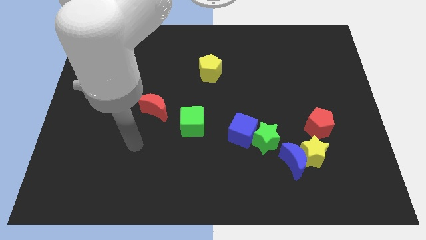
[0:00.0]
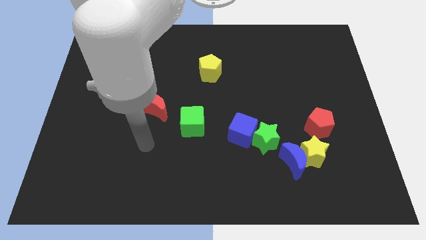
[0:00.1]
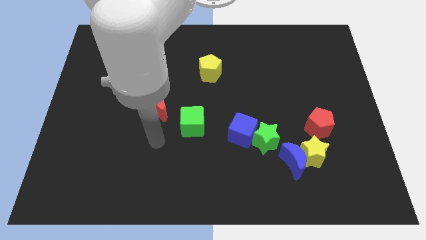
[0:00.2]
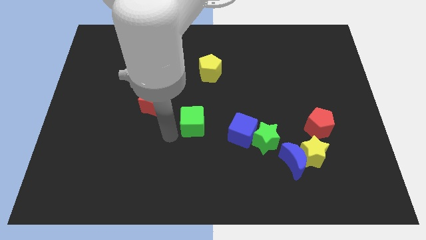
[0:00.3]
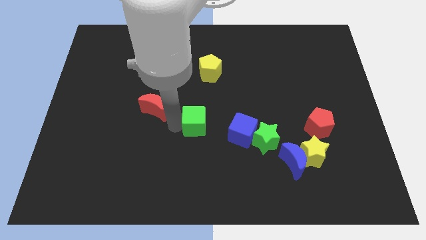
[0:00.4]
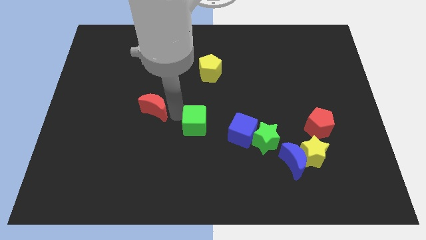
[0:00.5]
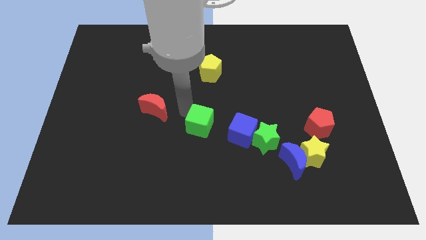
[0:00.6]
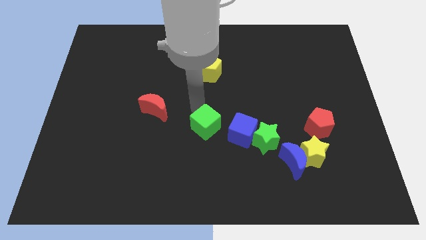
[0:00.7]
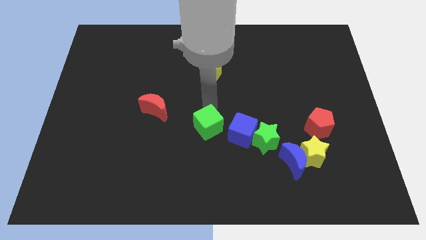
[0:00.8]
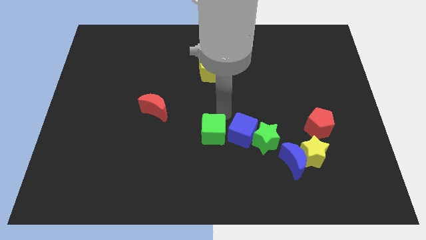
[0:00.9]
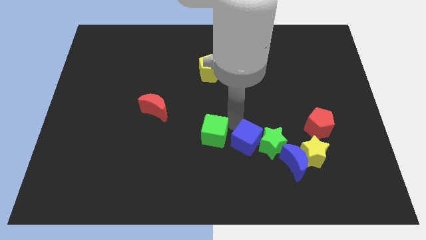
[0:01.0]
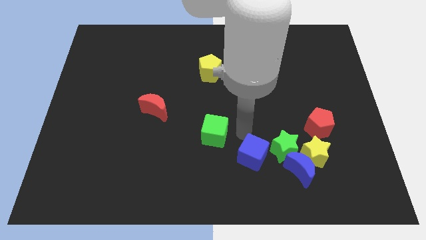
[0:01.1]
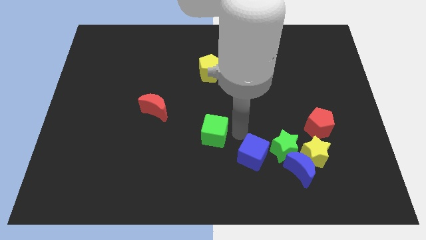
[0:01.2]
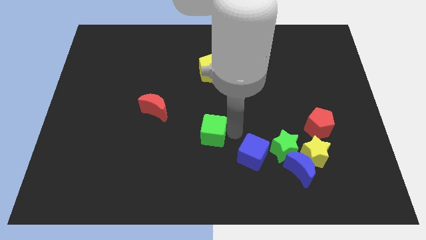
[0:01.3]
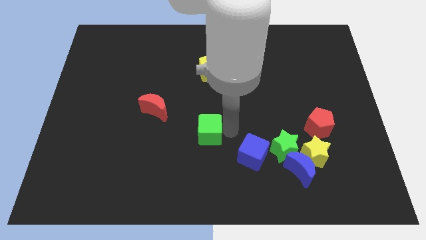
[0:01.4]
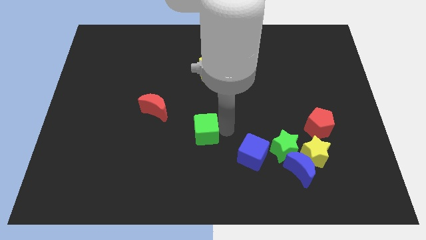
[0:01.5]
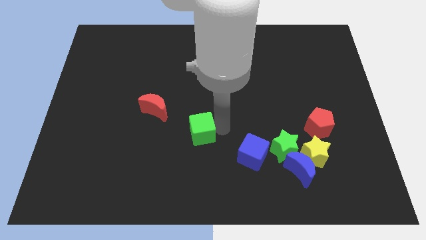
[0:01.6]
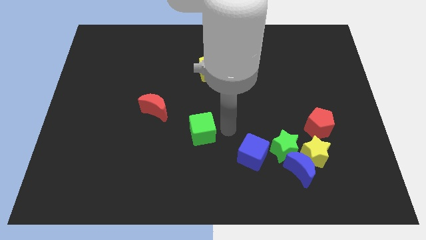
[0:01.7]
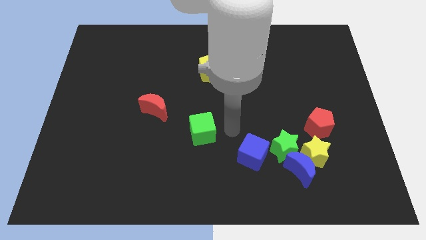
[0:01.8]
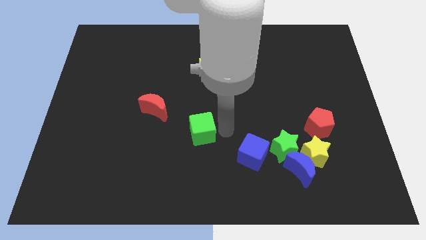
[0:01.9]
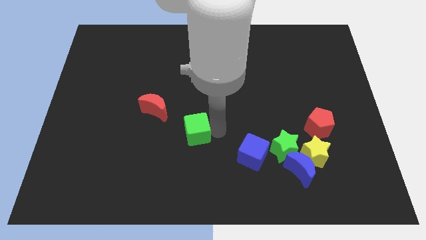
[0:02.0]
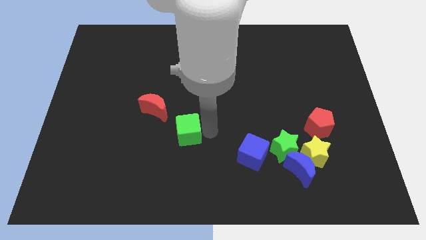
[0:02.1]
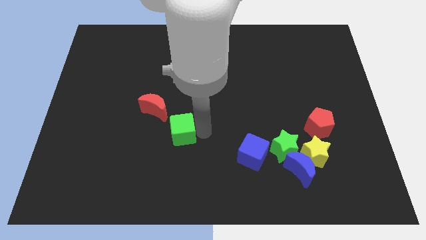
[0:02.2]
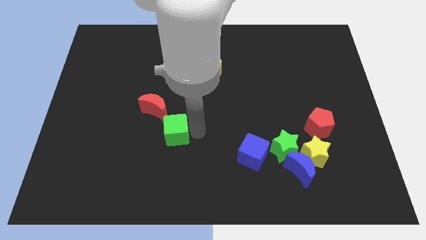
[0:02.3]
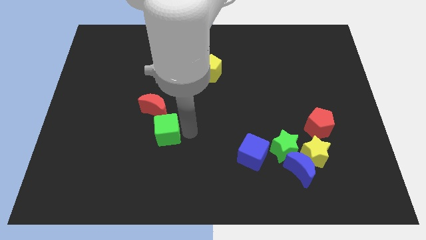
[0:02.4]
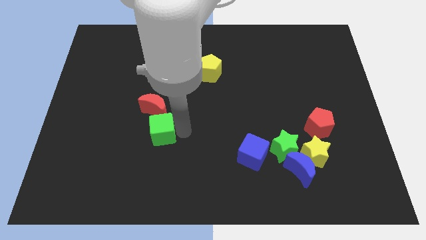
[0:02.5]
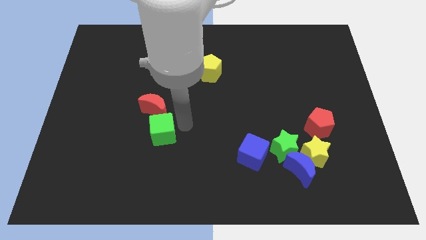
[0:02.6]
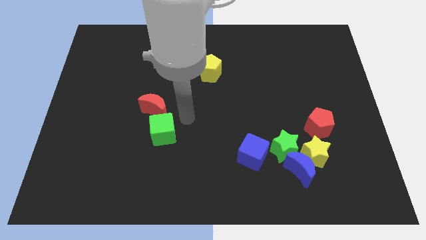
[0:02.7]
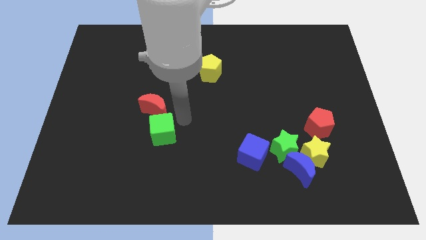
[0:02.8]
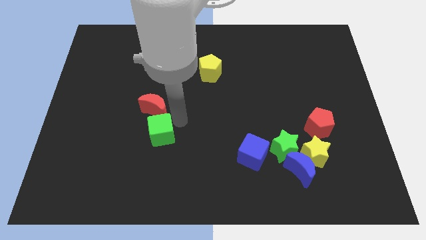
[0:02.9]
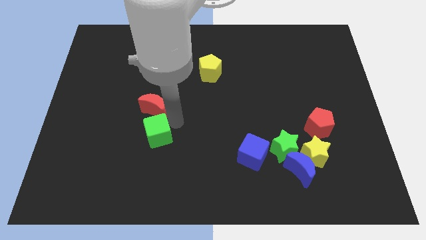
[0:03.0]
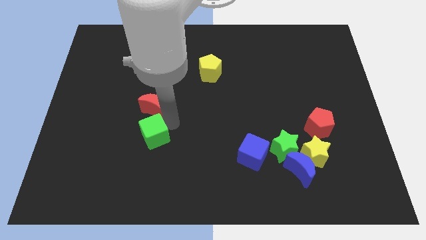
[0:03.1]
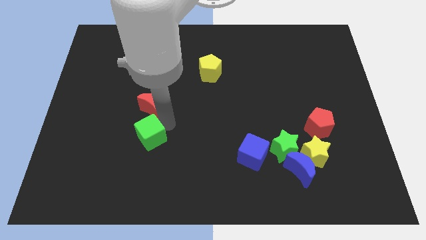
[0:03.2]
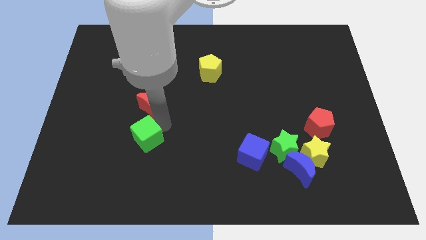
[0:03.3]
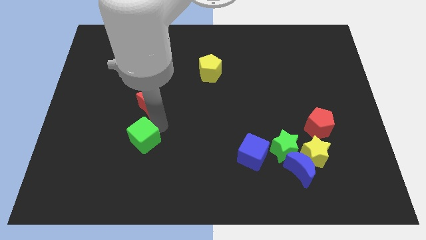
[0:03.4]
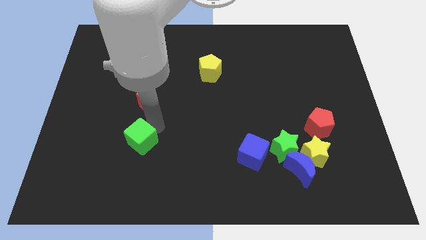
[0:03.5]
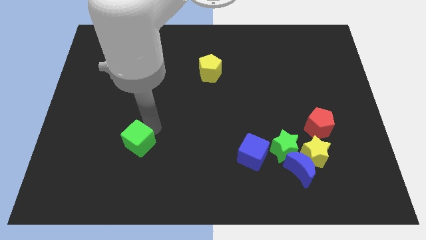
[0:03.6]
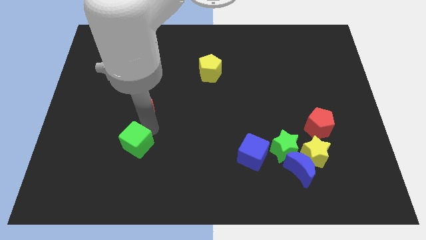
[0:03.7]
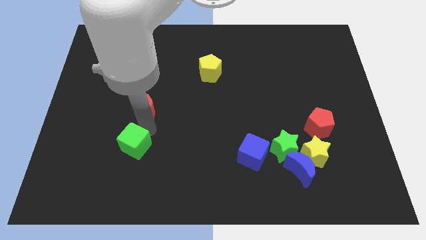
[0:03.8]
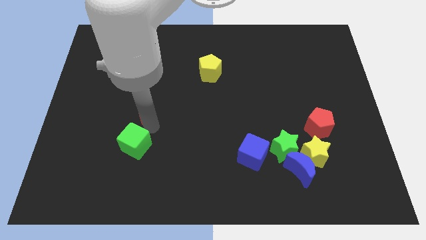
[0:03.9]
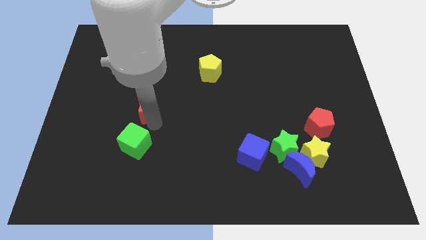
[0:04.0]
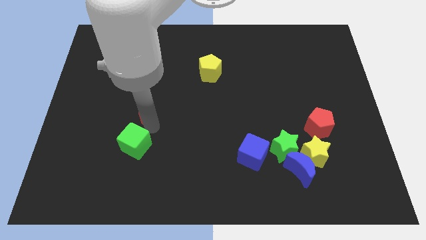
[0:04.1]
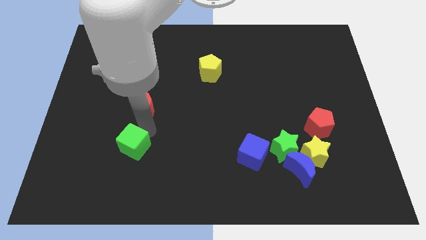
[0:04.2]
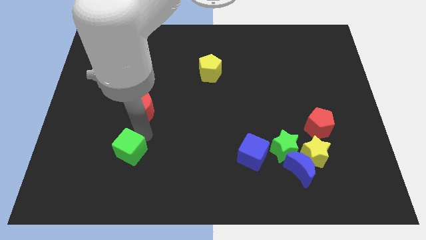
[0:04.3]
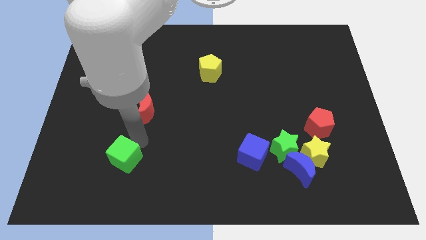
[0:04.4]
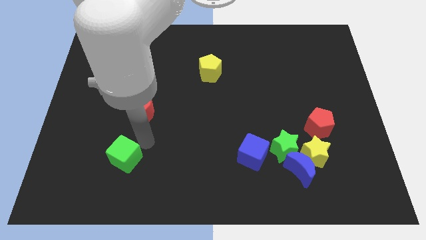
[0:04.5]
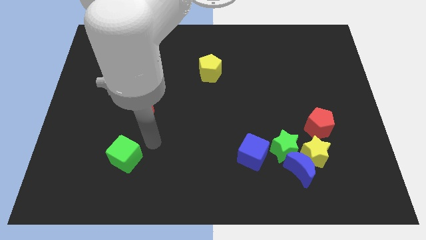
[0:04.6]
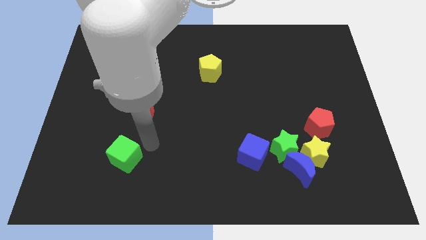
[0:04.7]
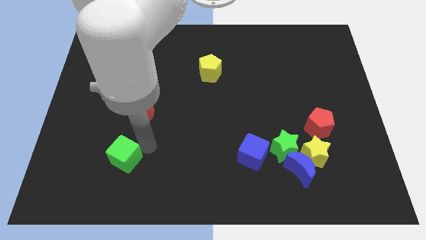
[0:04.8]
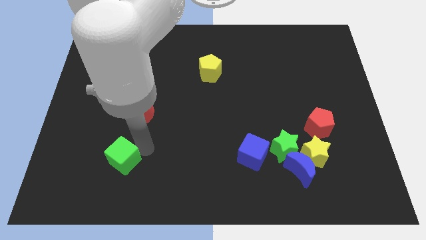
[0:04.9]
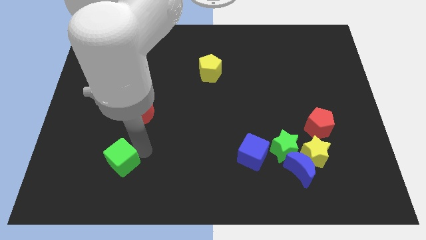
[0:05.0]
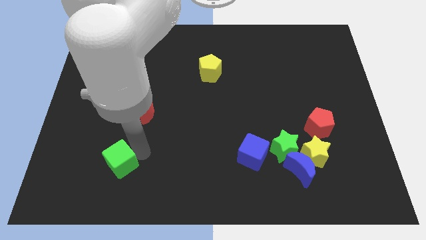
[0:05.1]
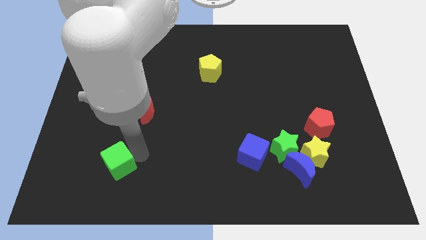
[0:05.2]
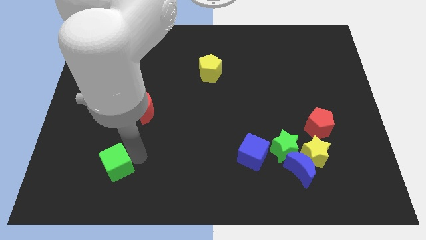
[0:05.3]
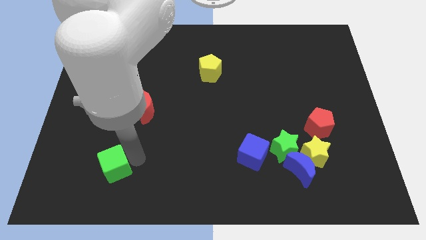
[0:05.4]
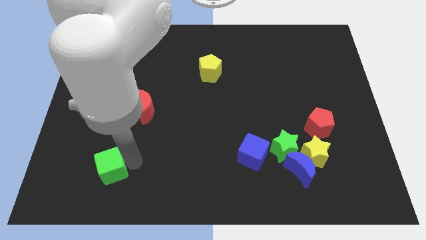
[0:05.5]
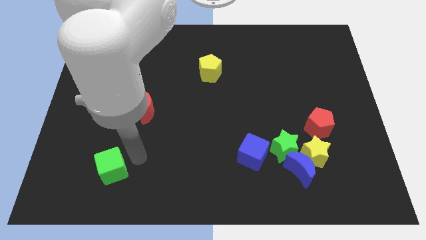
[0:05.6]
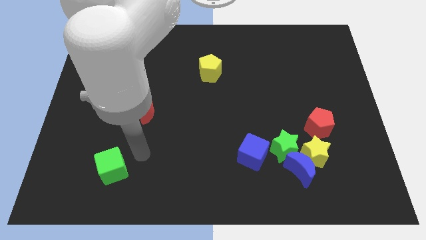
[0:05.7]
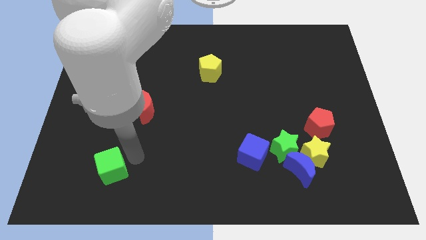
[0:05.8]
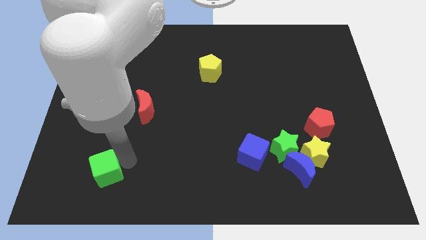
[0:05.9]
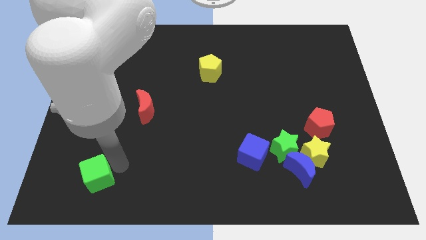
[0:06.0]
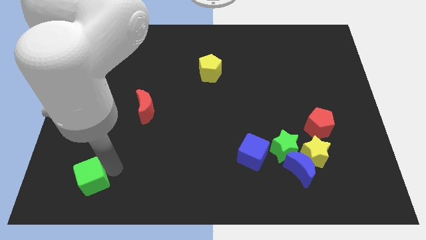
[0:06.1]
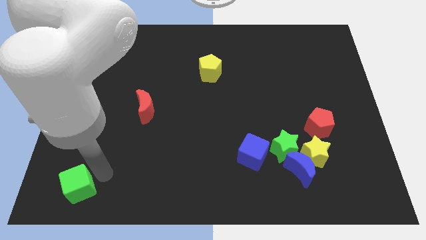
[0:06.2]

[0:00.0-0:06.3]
move the green cube to the bottom left of the board

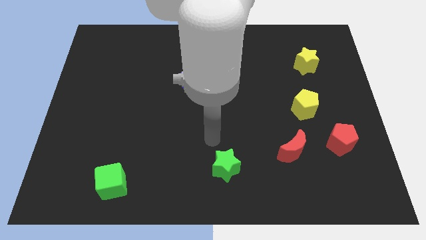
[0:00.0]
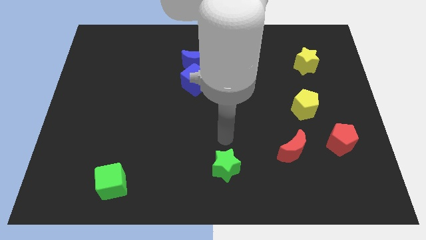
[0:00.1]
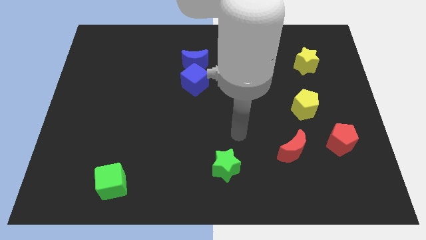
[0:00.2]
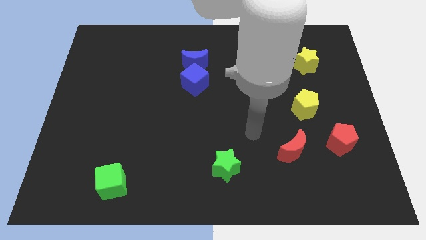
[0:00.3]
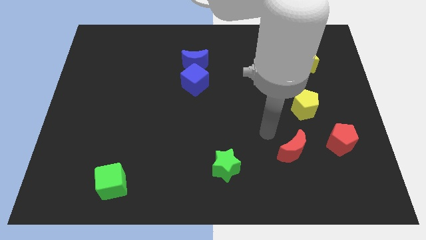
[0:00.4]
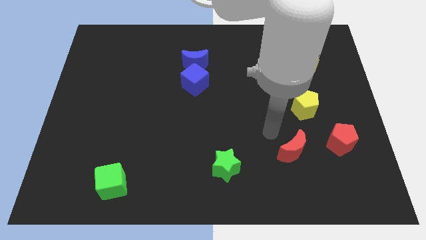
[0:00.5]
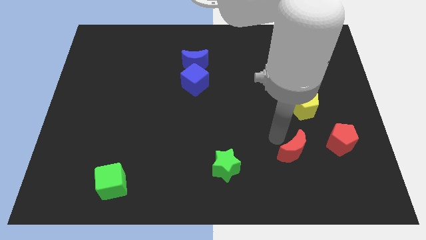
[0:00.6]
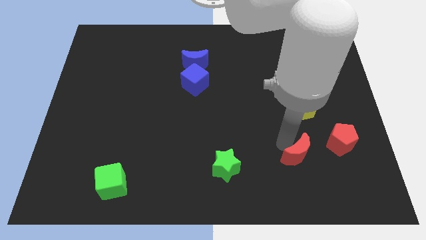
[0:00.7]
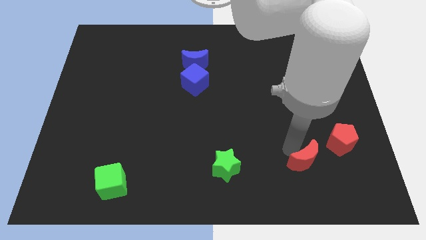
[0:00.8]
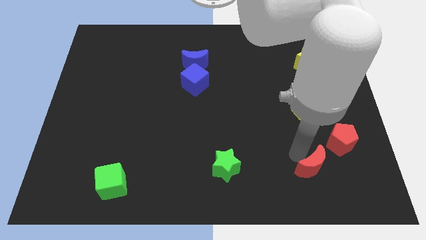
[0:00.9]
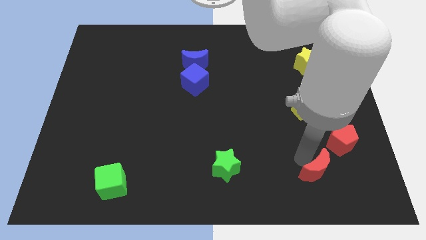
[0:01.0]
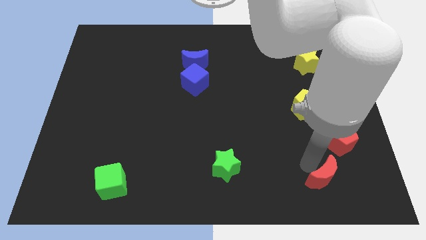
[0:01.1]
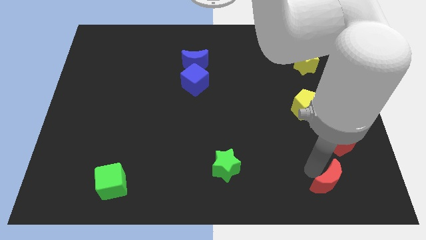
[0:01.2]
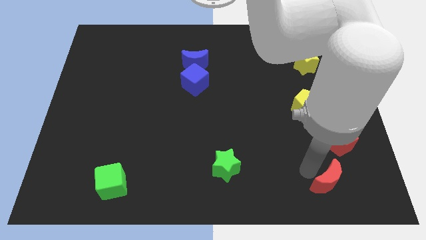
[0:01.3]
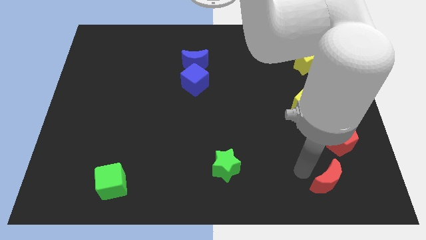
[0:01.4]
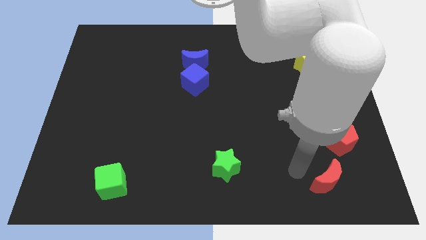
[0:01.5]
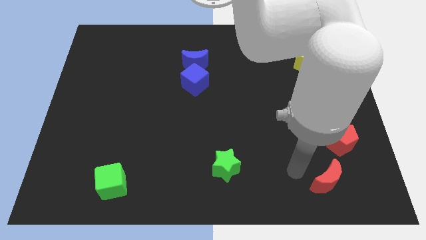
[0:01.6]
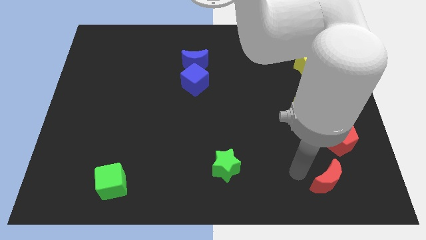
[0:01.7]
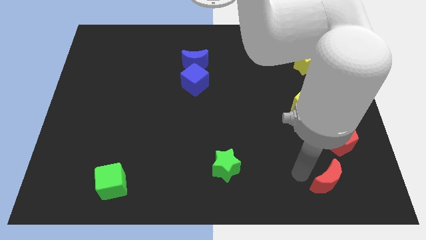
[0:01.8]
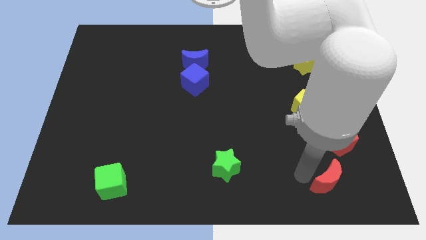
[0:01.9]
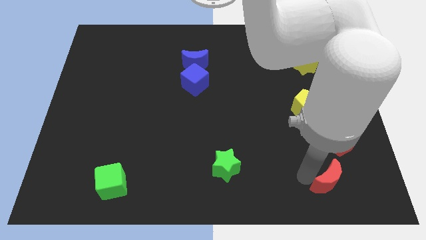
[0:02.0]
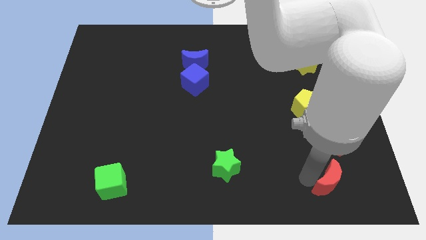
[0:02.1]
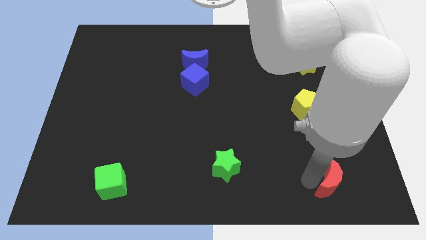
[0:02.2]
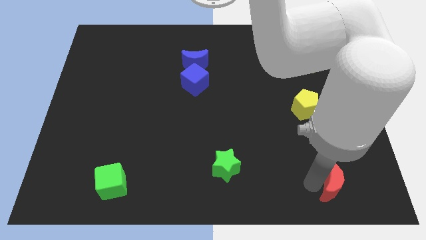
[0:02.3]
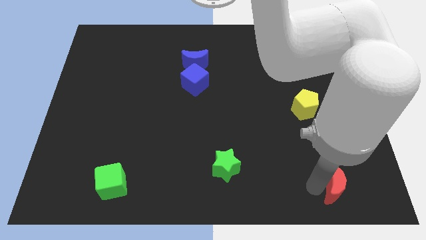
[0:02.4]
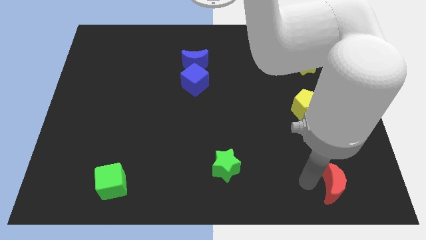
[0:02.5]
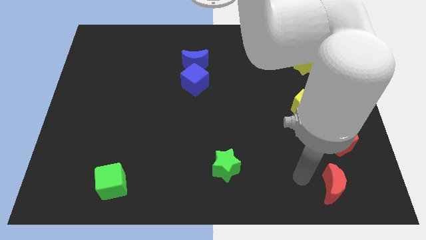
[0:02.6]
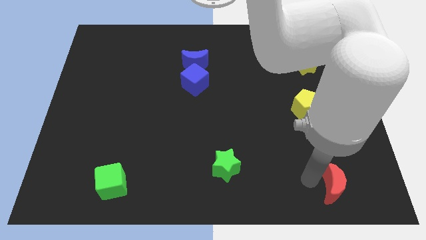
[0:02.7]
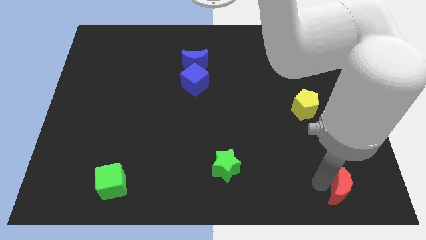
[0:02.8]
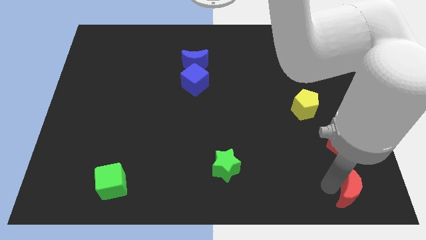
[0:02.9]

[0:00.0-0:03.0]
push the red moon to the bottom right corner
